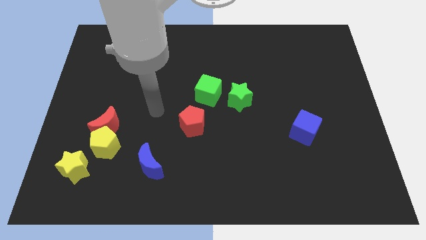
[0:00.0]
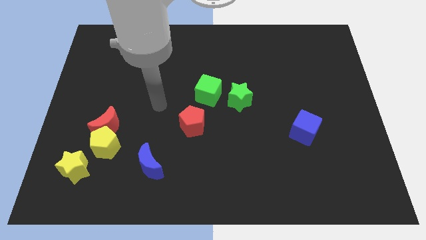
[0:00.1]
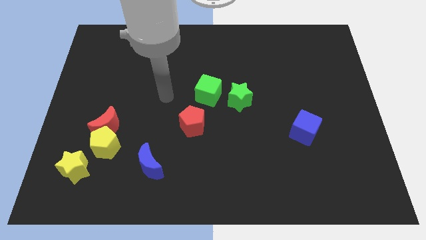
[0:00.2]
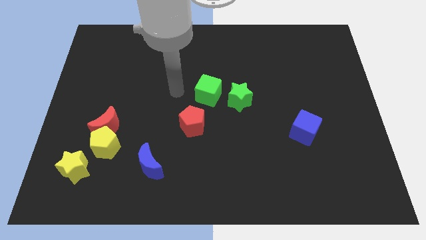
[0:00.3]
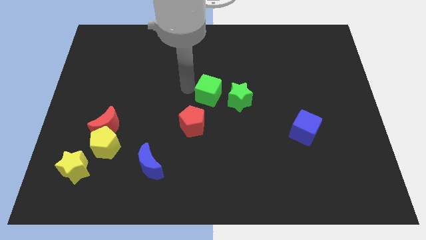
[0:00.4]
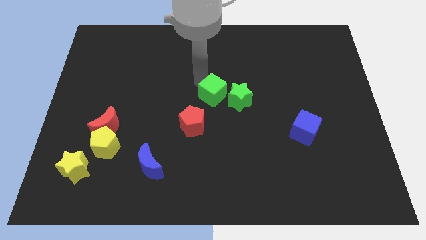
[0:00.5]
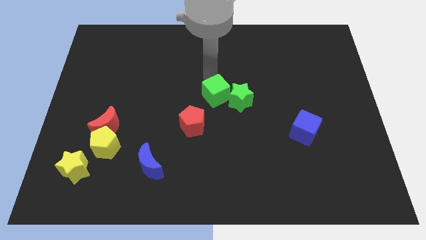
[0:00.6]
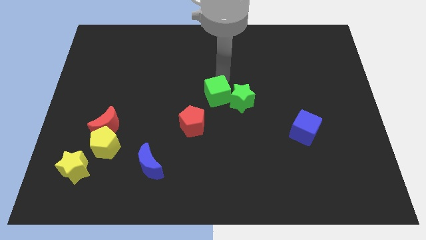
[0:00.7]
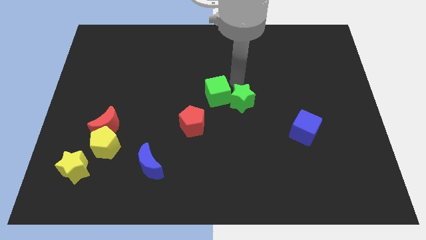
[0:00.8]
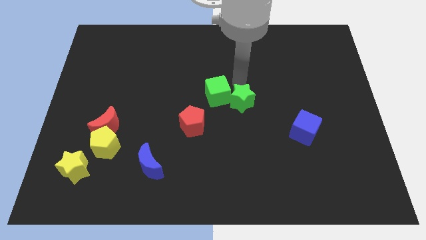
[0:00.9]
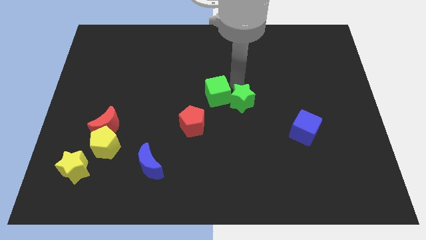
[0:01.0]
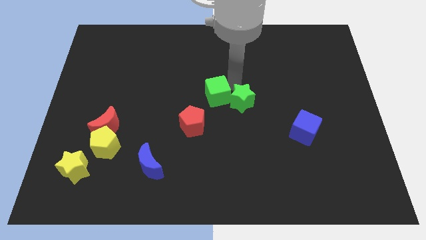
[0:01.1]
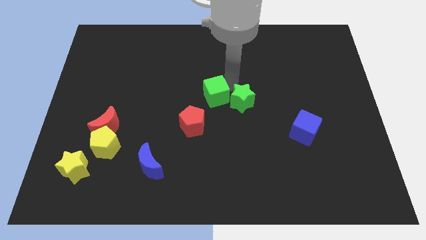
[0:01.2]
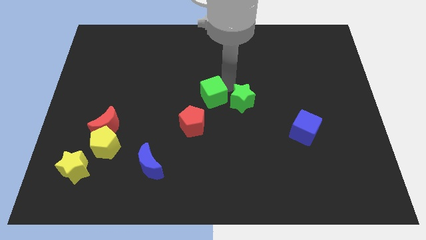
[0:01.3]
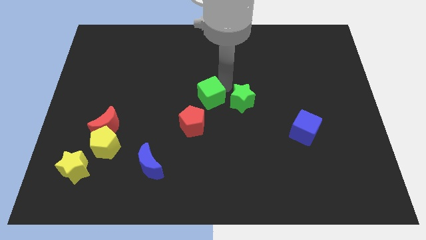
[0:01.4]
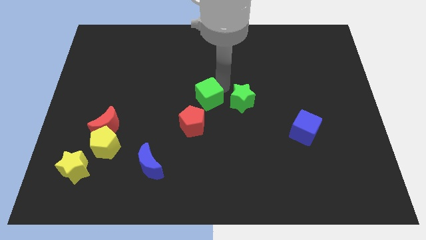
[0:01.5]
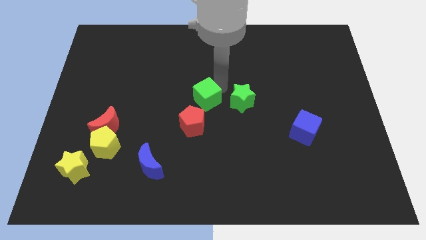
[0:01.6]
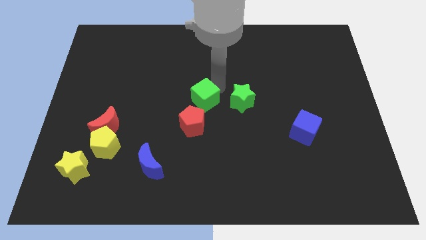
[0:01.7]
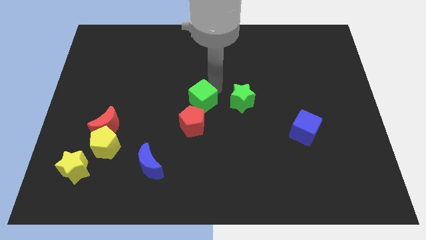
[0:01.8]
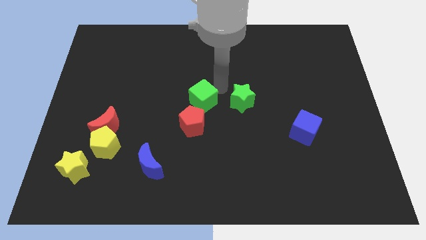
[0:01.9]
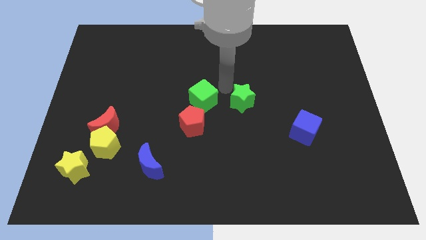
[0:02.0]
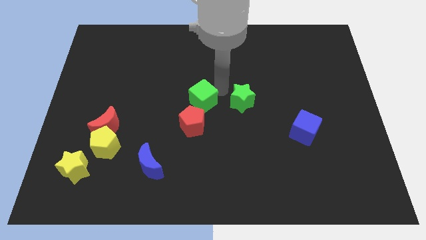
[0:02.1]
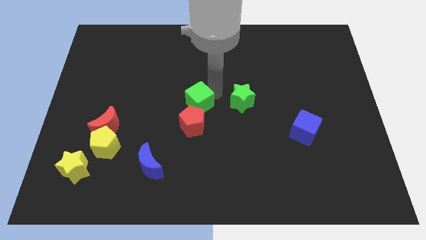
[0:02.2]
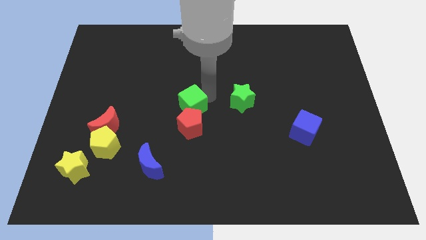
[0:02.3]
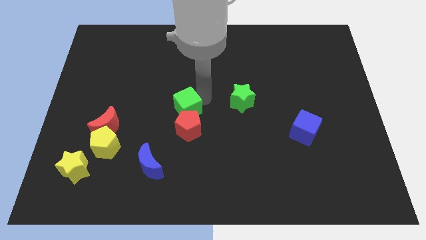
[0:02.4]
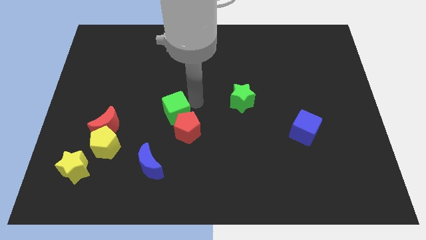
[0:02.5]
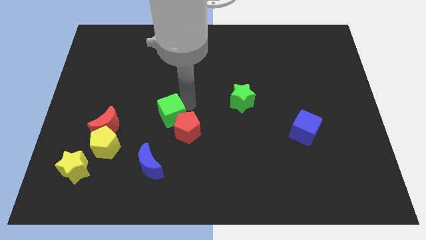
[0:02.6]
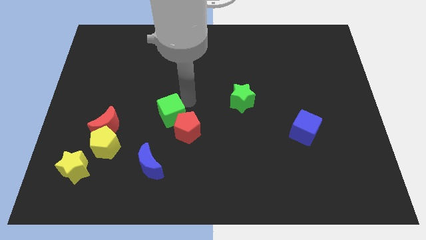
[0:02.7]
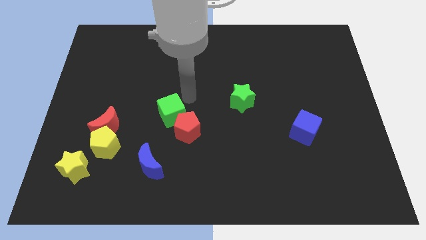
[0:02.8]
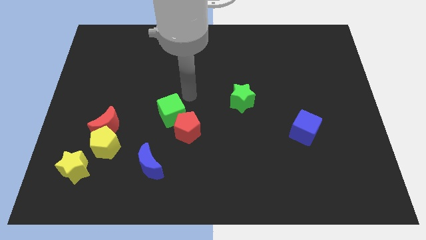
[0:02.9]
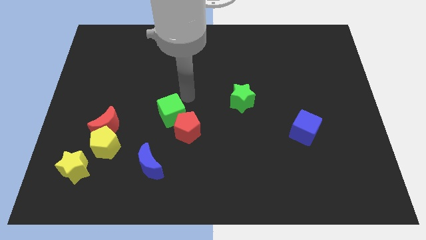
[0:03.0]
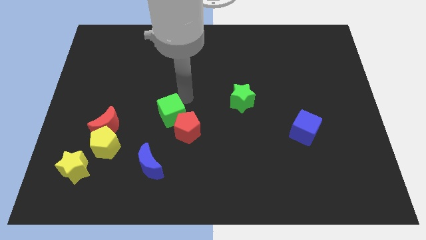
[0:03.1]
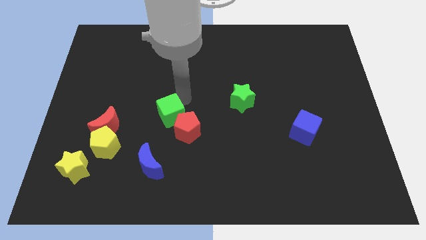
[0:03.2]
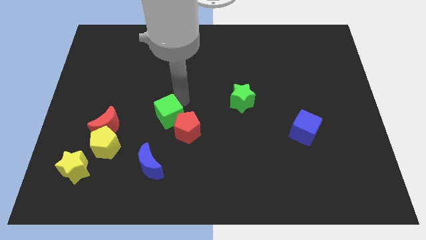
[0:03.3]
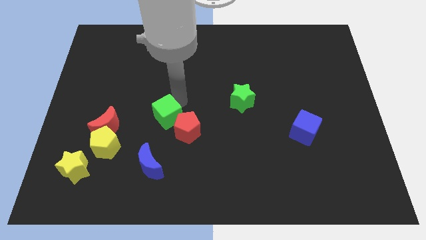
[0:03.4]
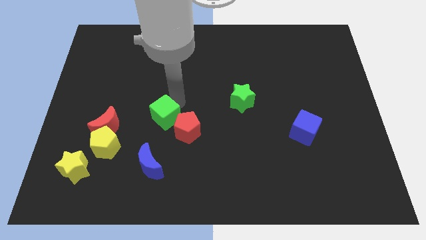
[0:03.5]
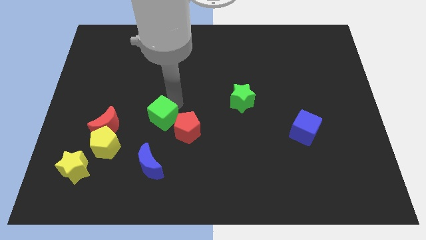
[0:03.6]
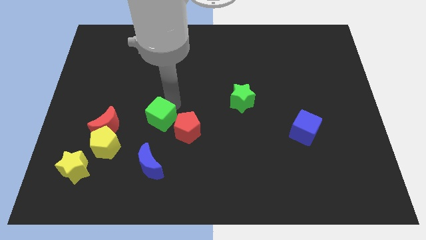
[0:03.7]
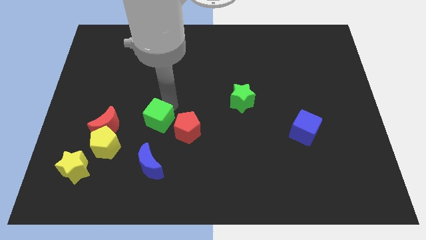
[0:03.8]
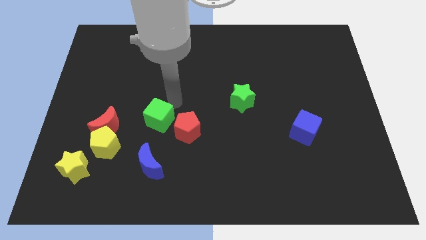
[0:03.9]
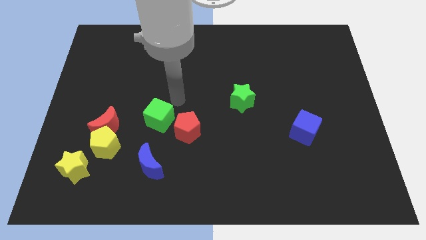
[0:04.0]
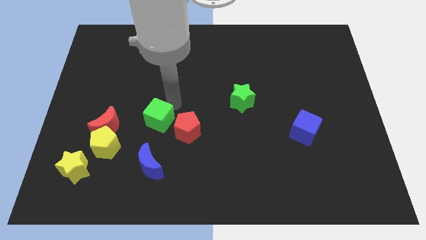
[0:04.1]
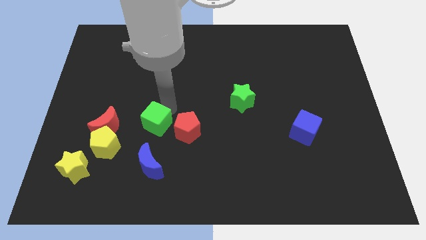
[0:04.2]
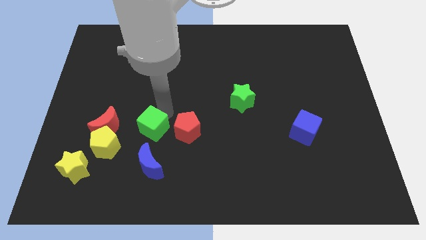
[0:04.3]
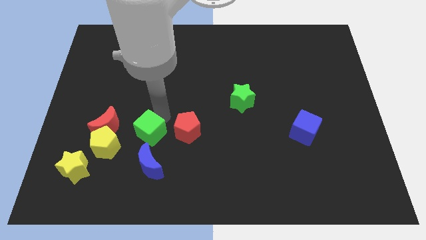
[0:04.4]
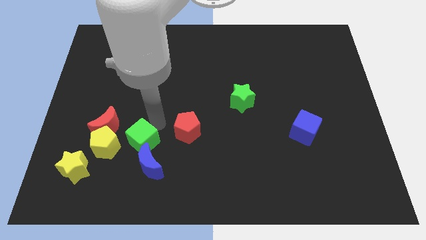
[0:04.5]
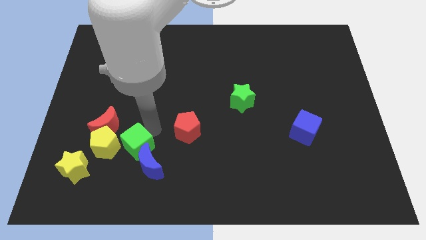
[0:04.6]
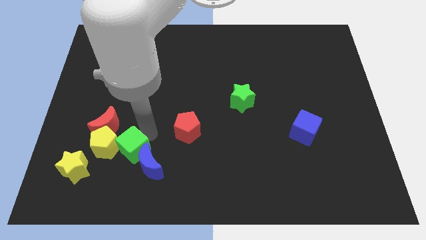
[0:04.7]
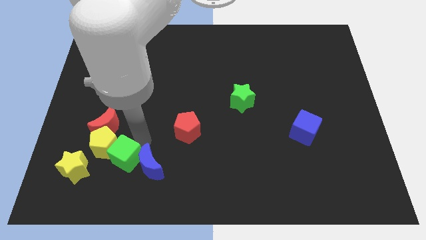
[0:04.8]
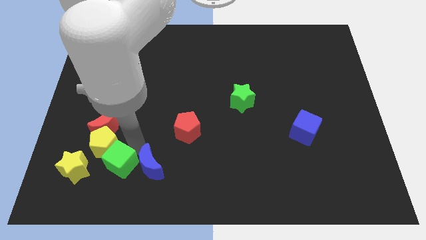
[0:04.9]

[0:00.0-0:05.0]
move the green cube to the bottom of the red moon

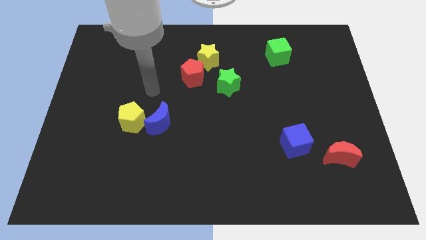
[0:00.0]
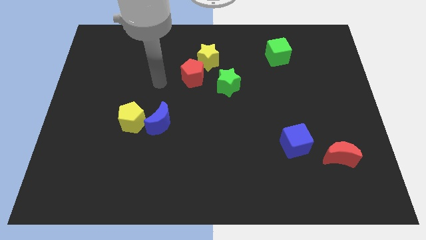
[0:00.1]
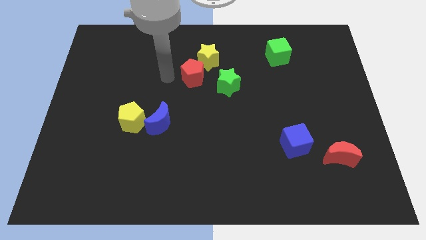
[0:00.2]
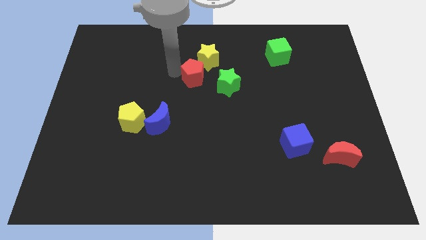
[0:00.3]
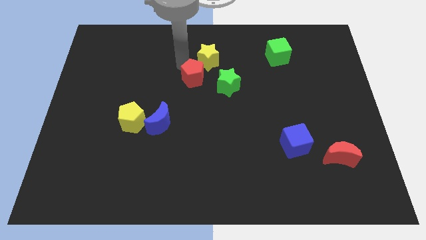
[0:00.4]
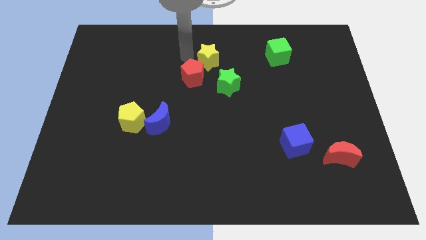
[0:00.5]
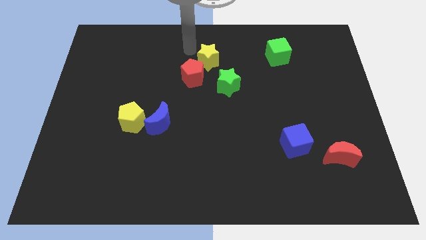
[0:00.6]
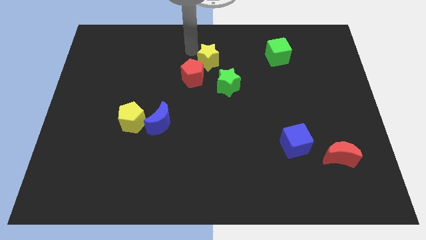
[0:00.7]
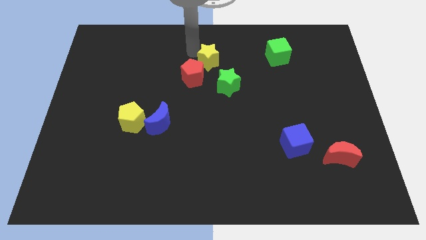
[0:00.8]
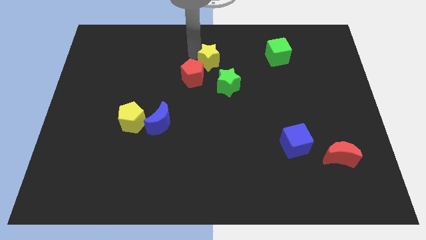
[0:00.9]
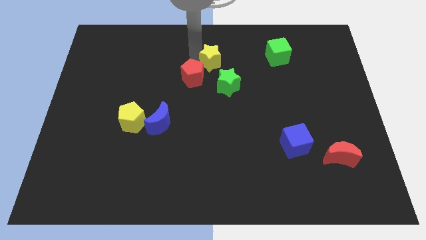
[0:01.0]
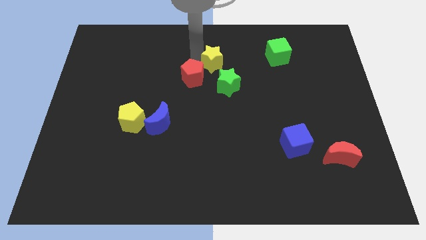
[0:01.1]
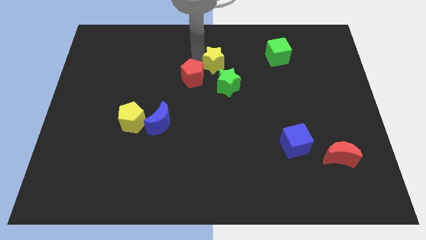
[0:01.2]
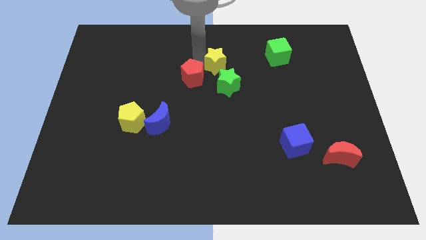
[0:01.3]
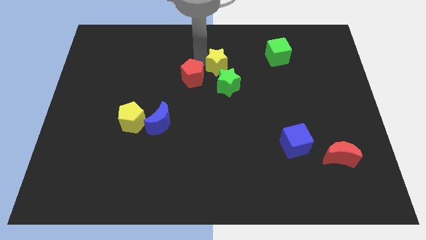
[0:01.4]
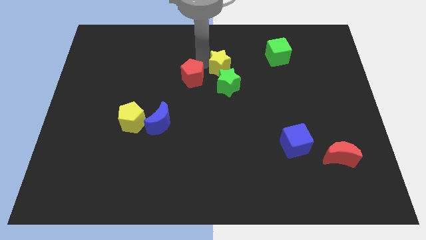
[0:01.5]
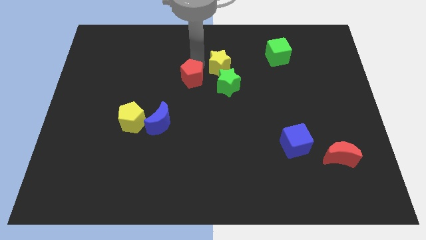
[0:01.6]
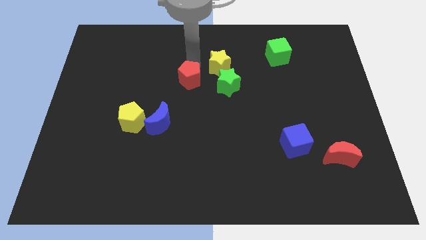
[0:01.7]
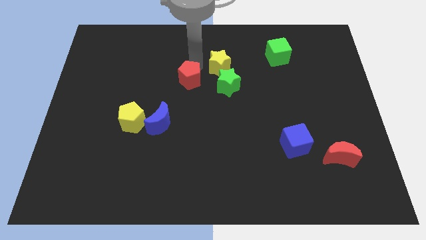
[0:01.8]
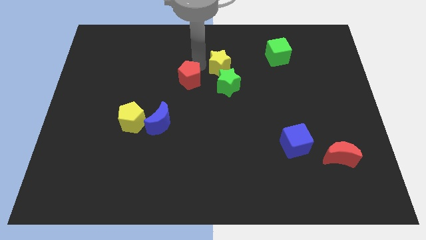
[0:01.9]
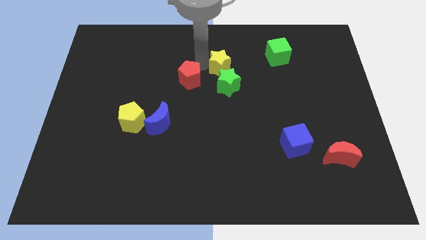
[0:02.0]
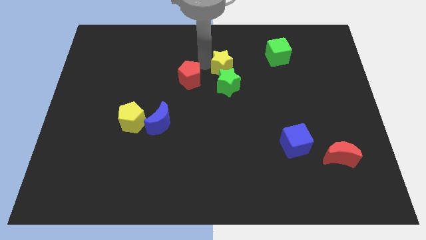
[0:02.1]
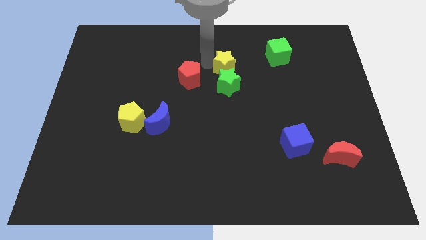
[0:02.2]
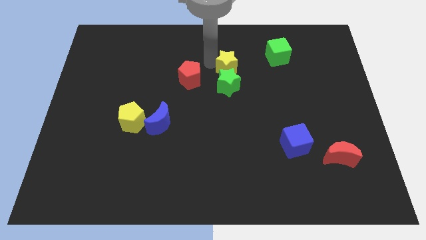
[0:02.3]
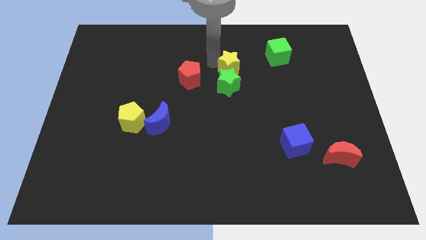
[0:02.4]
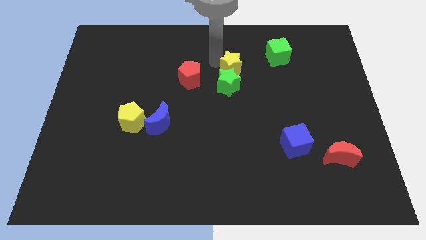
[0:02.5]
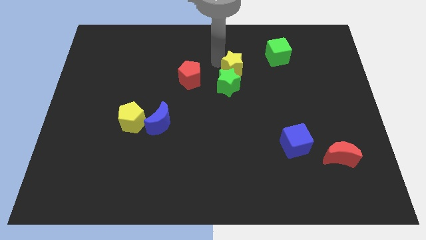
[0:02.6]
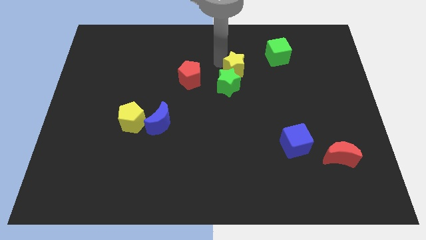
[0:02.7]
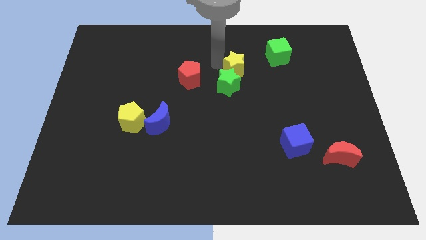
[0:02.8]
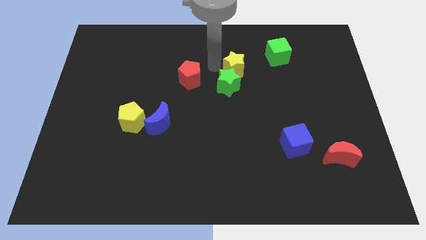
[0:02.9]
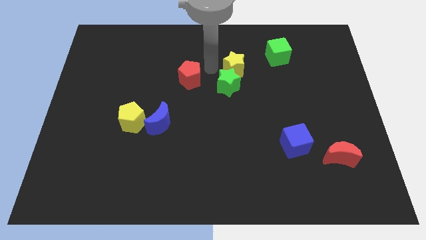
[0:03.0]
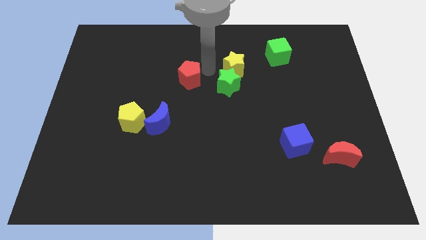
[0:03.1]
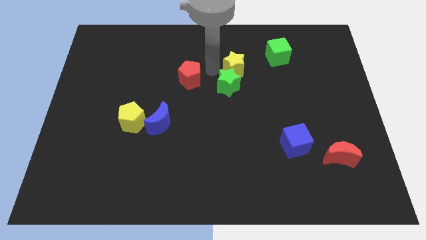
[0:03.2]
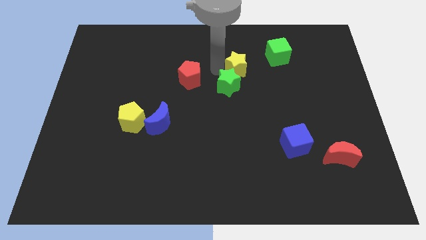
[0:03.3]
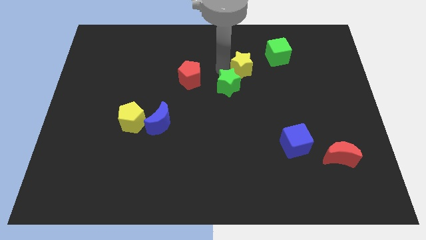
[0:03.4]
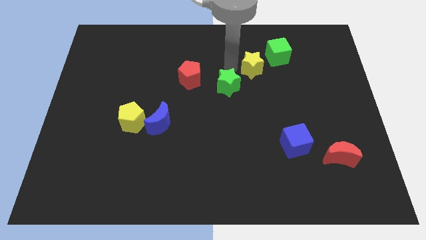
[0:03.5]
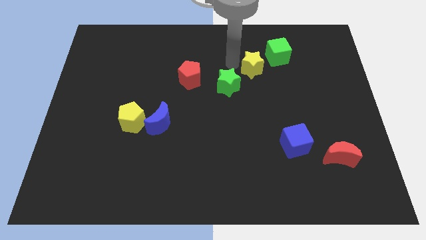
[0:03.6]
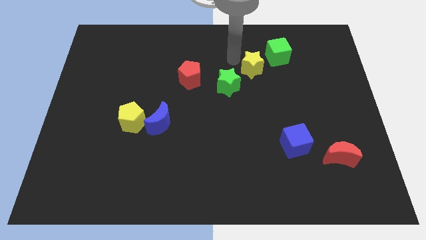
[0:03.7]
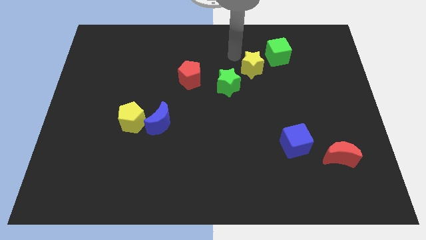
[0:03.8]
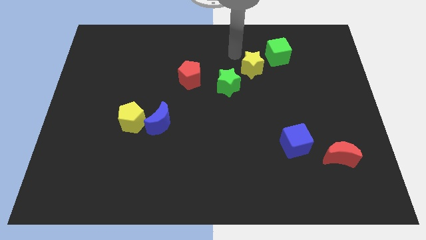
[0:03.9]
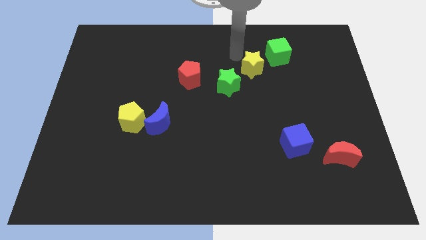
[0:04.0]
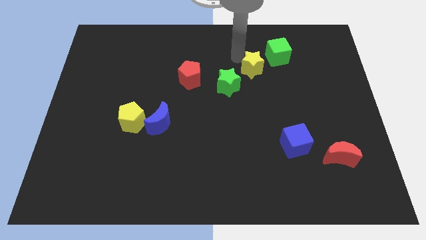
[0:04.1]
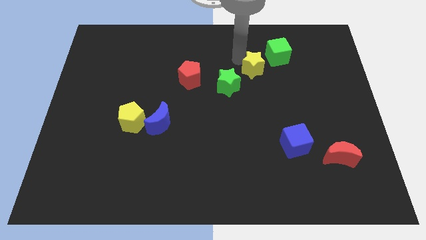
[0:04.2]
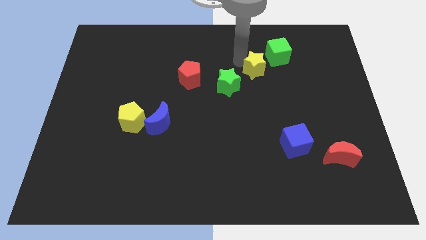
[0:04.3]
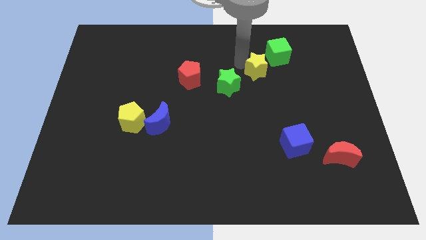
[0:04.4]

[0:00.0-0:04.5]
put the yellow star to the right side of the green star
